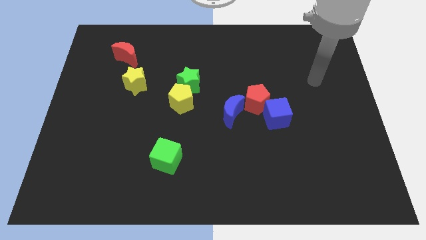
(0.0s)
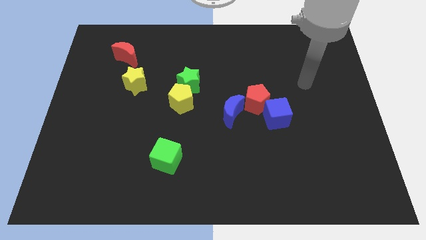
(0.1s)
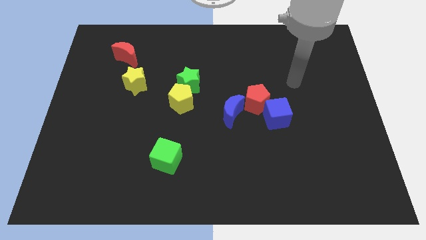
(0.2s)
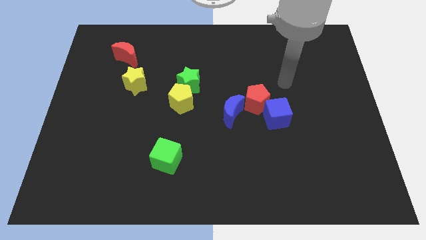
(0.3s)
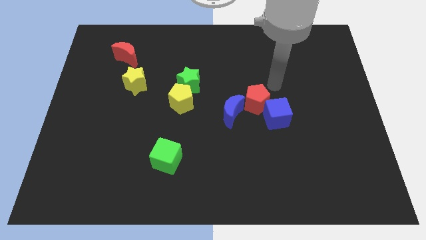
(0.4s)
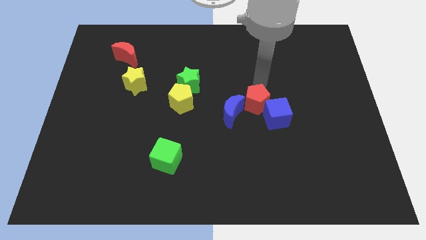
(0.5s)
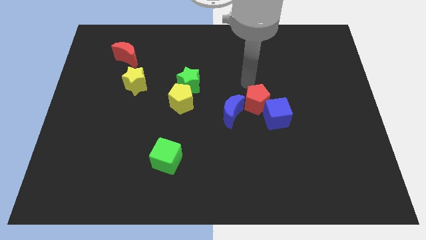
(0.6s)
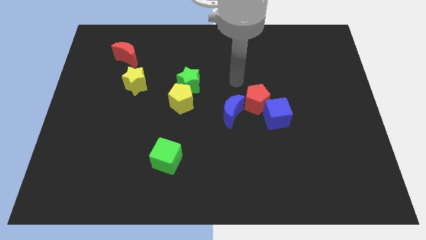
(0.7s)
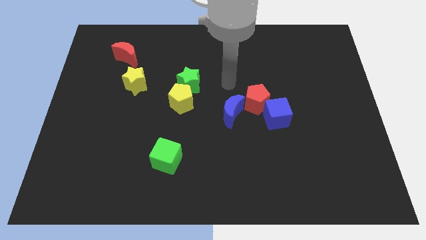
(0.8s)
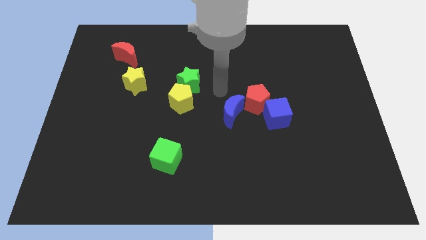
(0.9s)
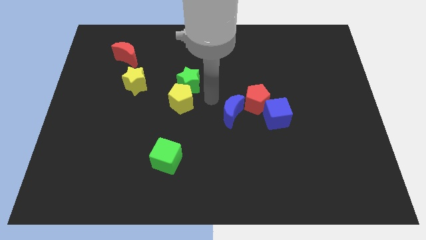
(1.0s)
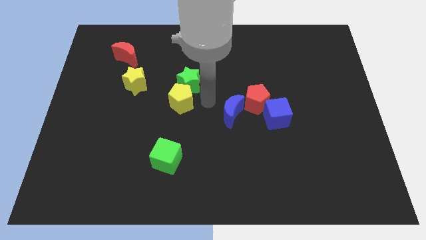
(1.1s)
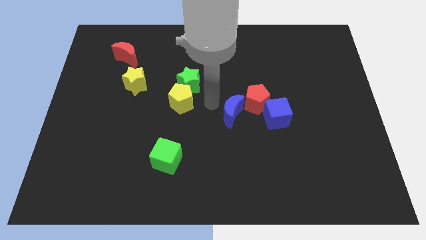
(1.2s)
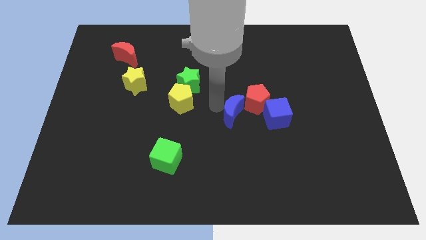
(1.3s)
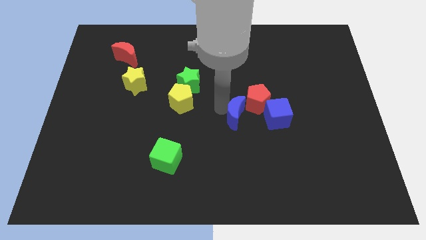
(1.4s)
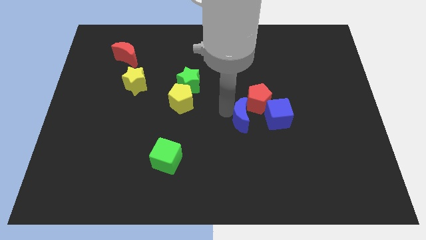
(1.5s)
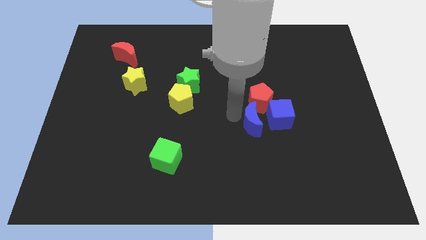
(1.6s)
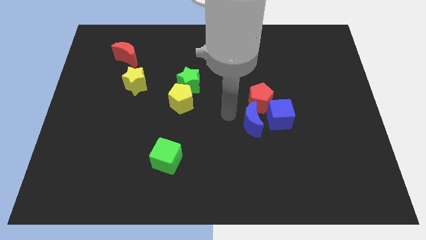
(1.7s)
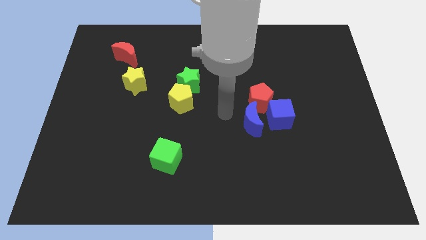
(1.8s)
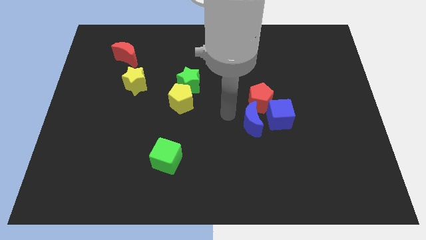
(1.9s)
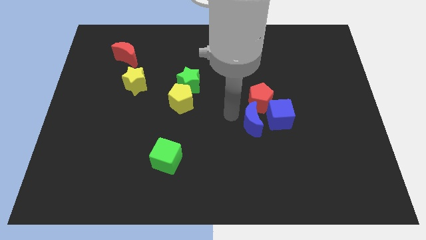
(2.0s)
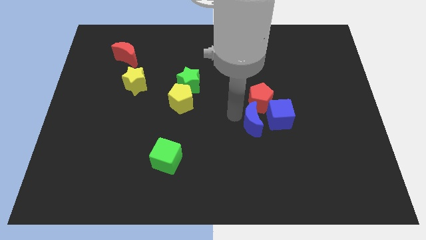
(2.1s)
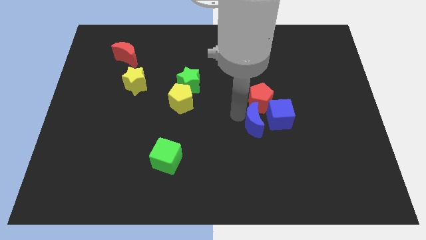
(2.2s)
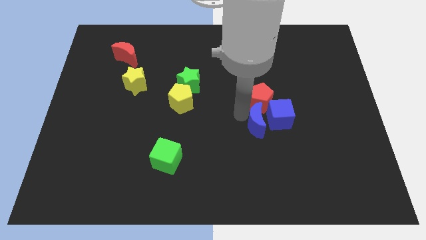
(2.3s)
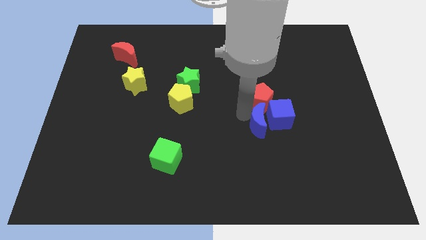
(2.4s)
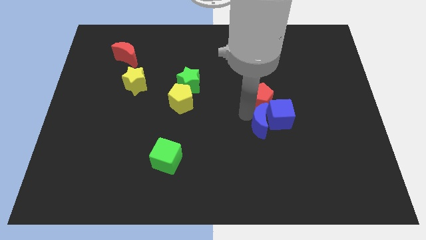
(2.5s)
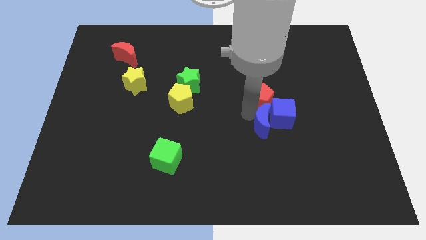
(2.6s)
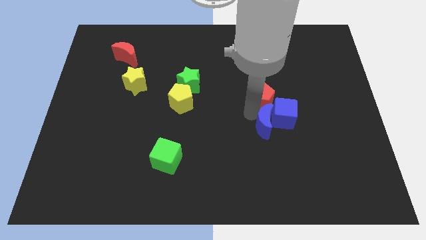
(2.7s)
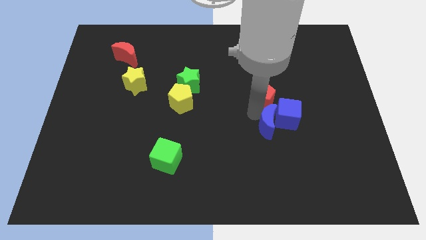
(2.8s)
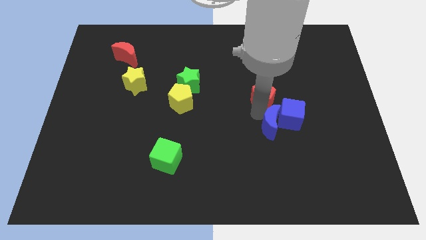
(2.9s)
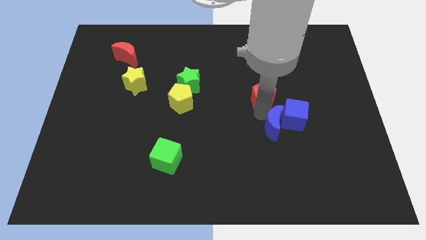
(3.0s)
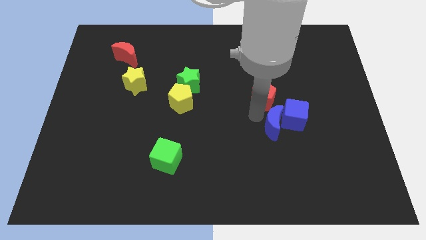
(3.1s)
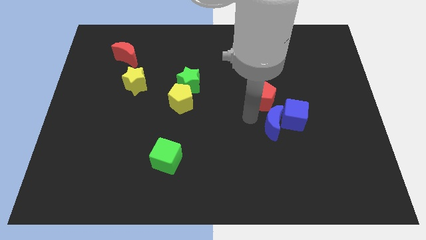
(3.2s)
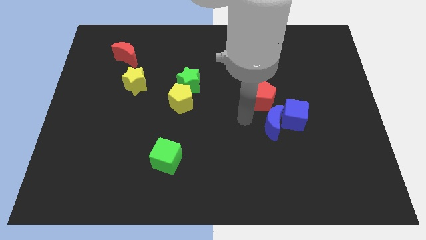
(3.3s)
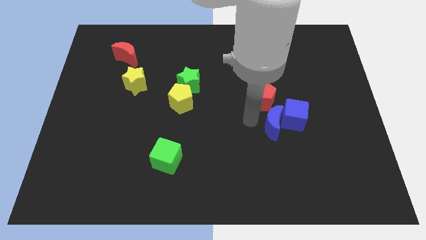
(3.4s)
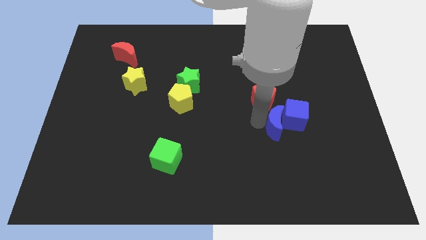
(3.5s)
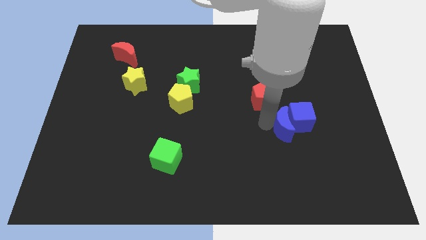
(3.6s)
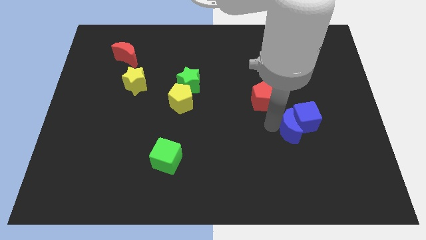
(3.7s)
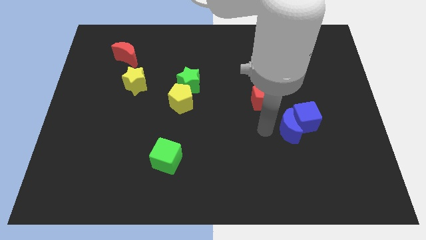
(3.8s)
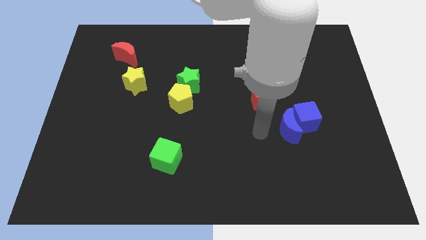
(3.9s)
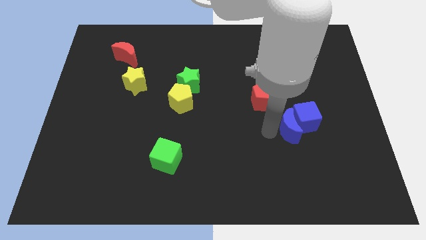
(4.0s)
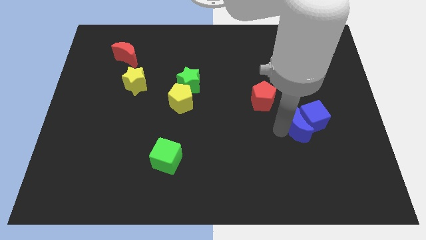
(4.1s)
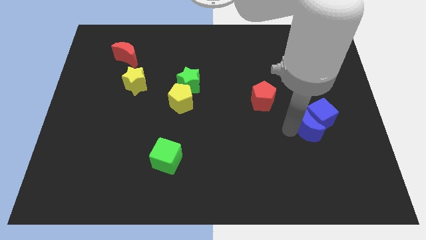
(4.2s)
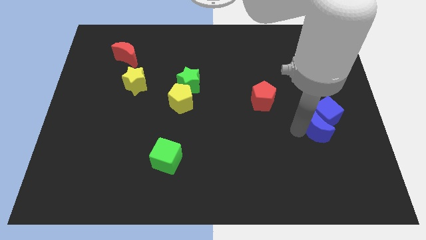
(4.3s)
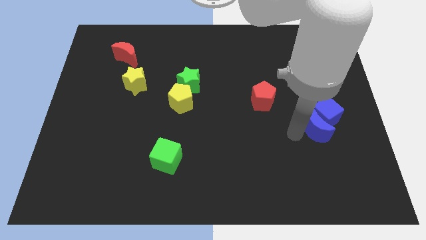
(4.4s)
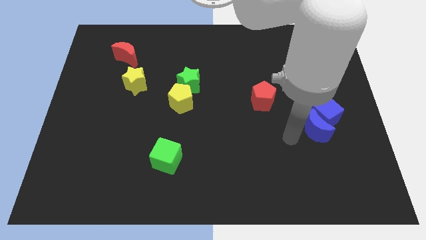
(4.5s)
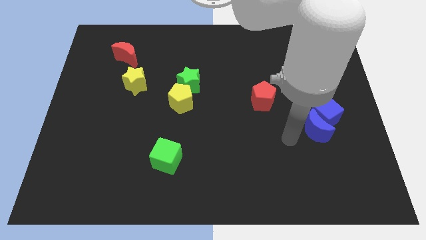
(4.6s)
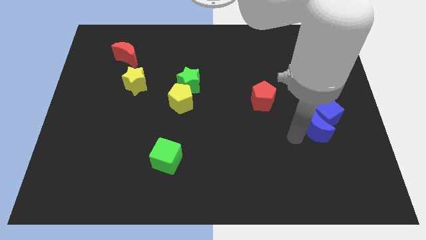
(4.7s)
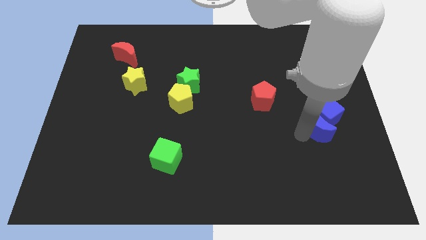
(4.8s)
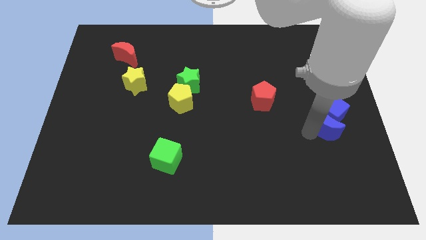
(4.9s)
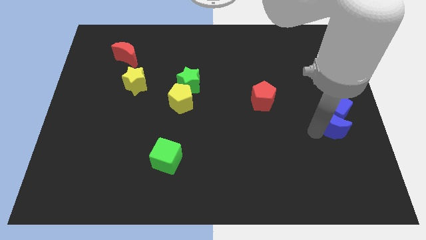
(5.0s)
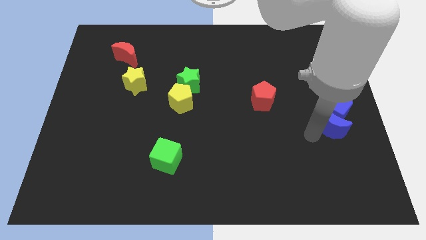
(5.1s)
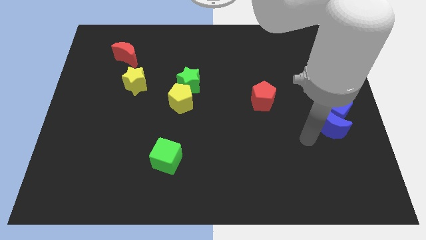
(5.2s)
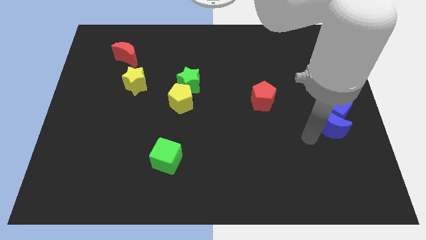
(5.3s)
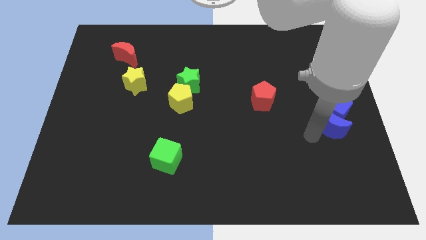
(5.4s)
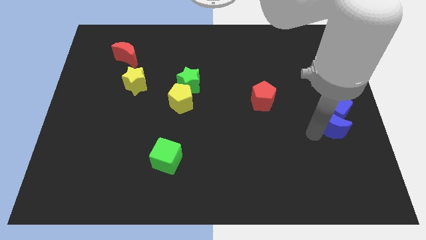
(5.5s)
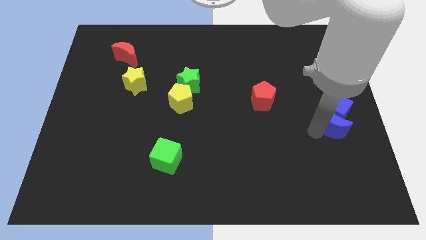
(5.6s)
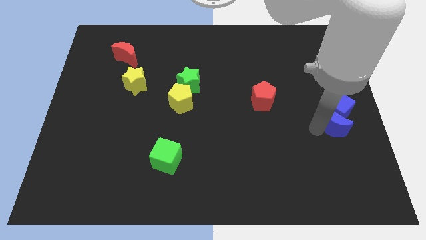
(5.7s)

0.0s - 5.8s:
put the blue moon to the center right
